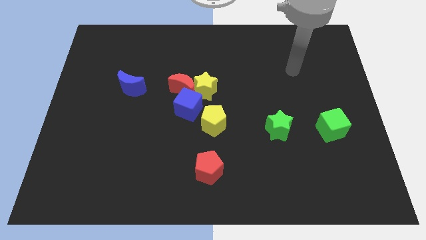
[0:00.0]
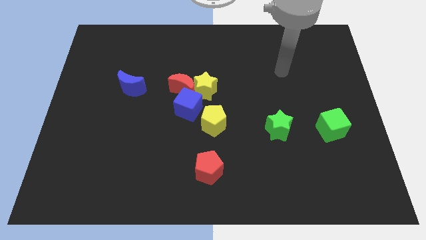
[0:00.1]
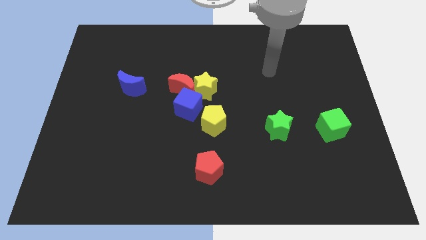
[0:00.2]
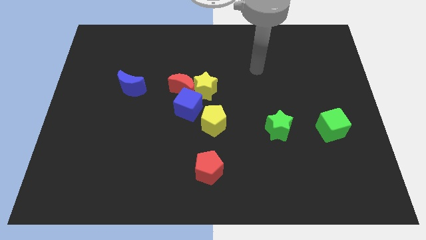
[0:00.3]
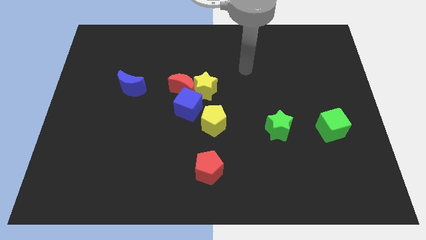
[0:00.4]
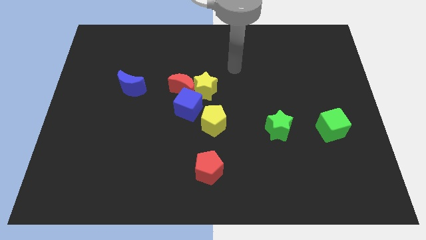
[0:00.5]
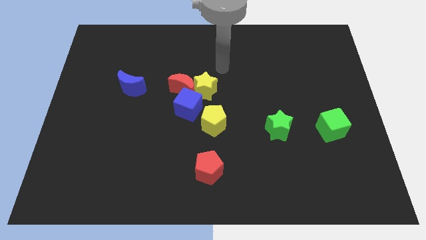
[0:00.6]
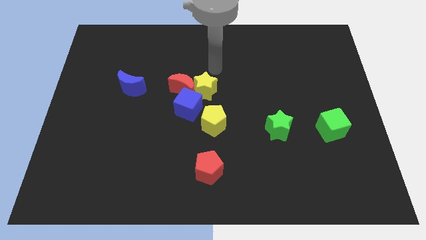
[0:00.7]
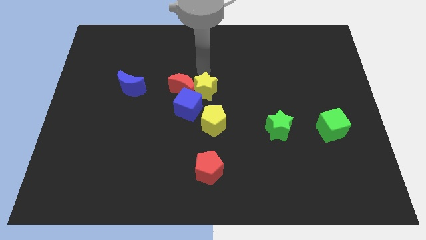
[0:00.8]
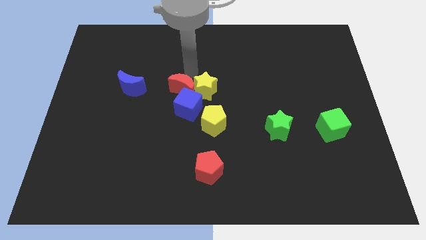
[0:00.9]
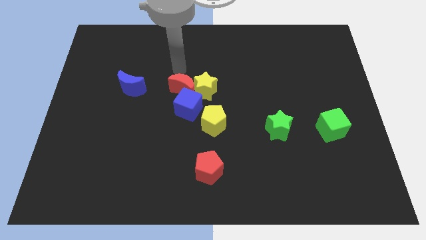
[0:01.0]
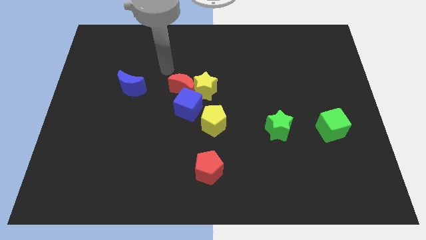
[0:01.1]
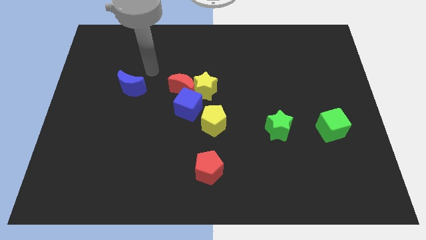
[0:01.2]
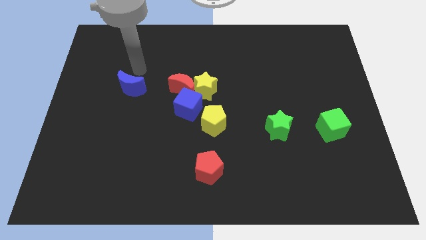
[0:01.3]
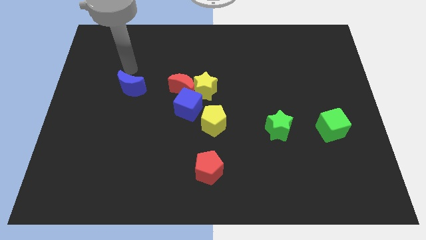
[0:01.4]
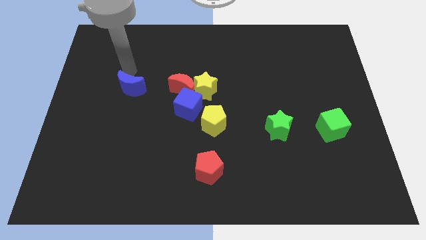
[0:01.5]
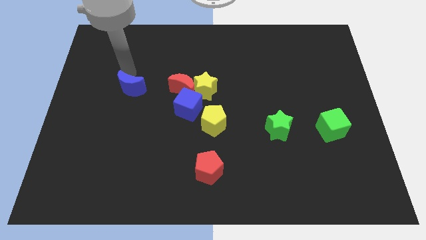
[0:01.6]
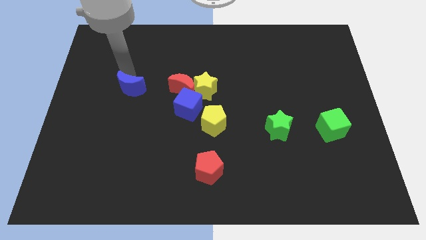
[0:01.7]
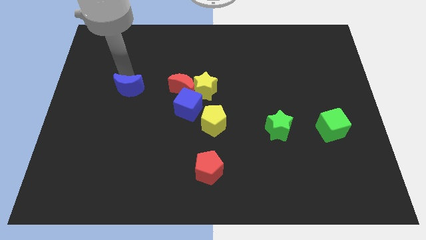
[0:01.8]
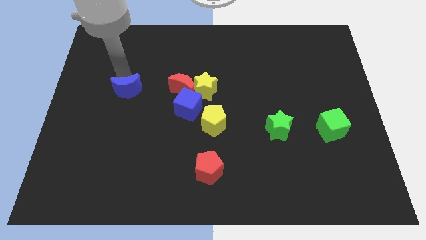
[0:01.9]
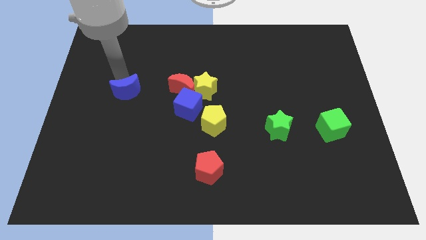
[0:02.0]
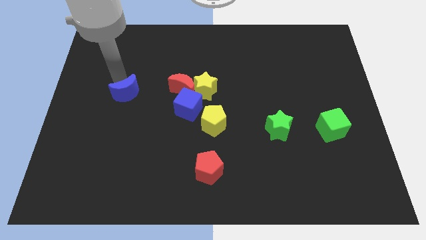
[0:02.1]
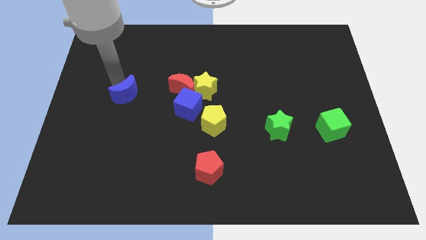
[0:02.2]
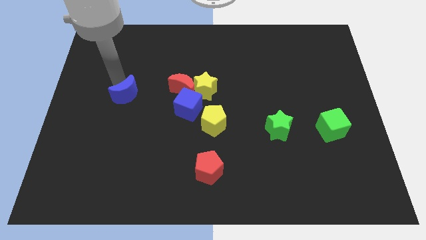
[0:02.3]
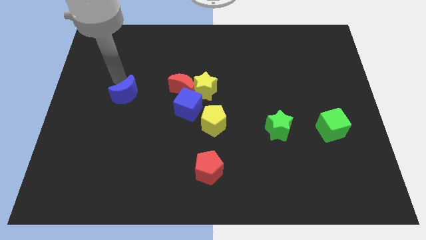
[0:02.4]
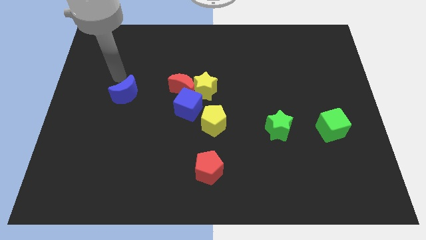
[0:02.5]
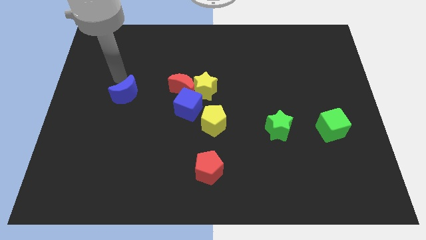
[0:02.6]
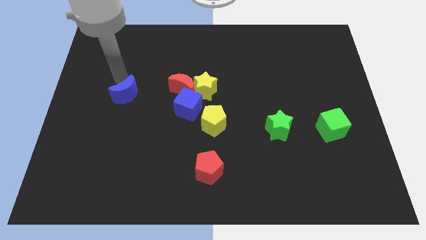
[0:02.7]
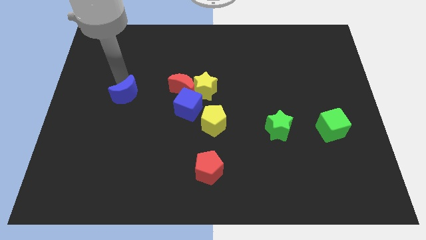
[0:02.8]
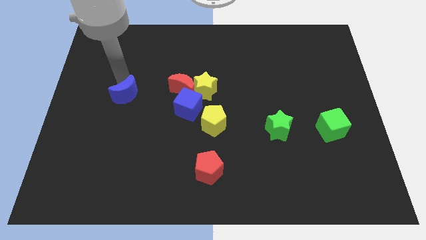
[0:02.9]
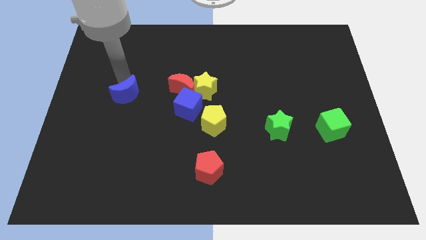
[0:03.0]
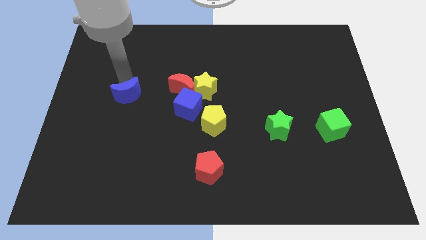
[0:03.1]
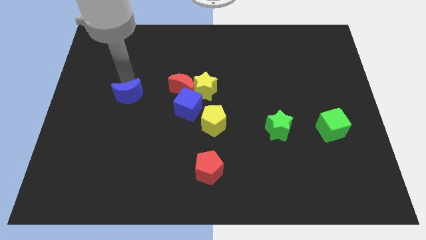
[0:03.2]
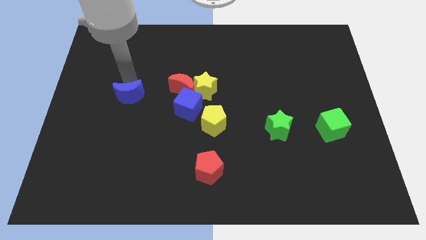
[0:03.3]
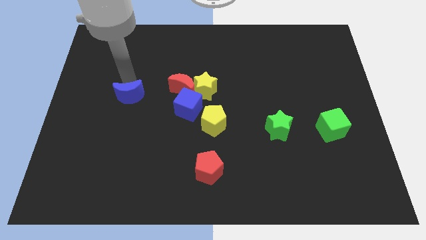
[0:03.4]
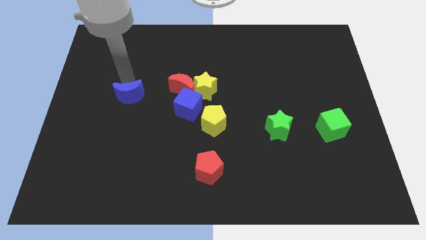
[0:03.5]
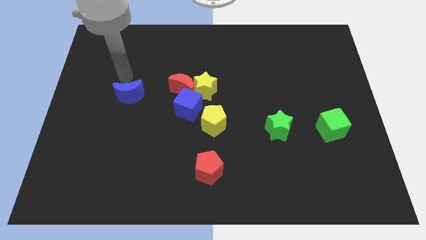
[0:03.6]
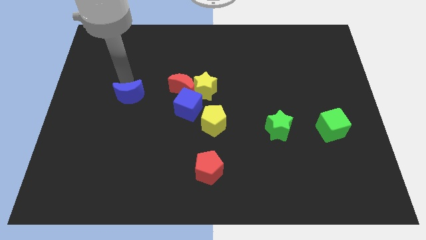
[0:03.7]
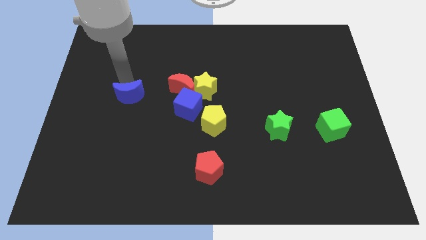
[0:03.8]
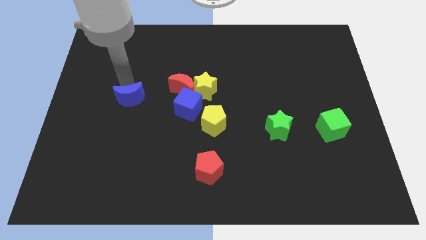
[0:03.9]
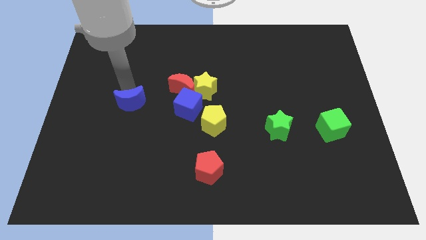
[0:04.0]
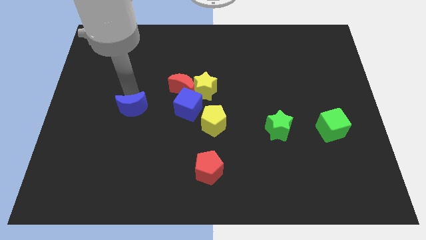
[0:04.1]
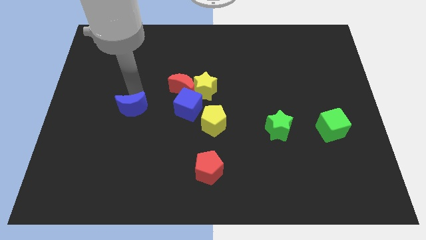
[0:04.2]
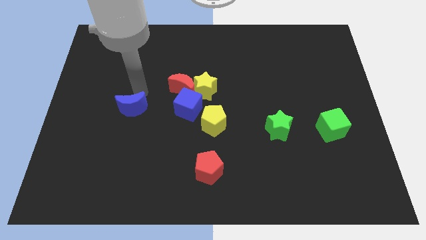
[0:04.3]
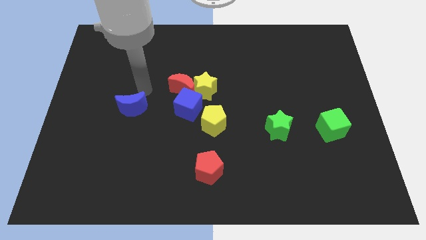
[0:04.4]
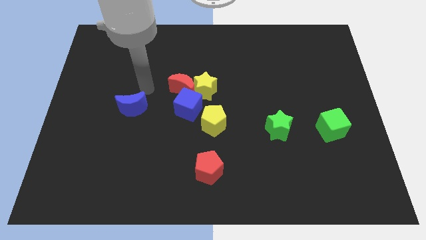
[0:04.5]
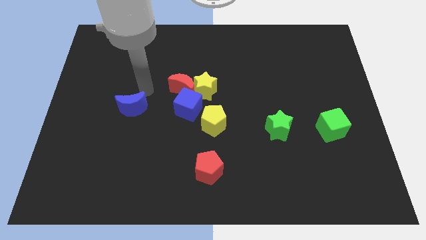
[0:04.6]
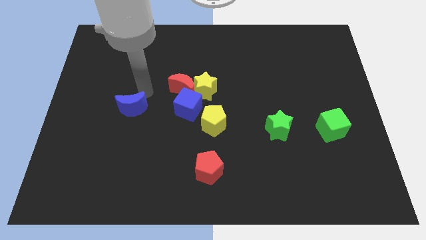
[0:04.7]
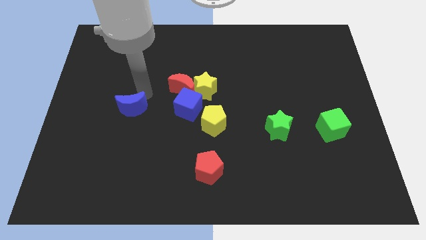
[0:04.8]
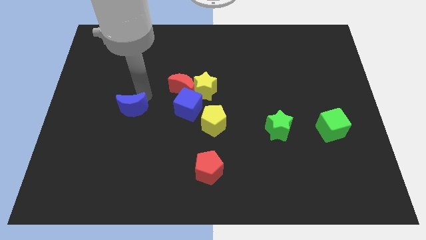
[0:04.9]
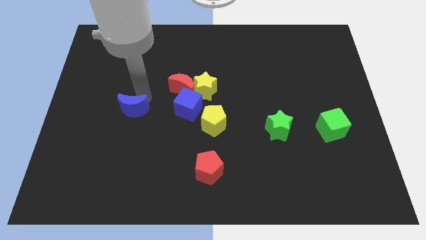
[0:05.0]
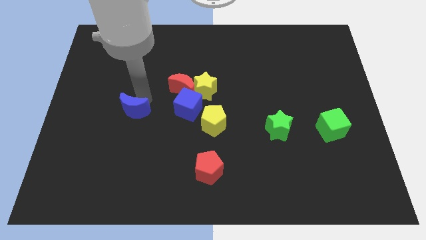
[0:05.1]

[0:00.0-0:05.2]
push the blue moon a little down

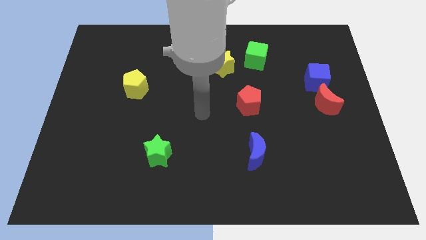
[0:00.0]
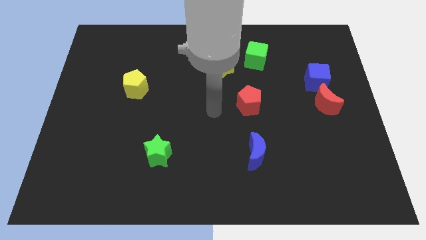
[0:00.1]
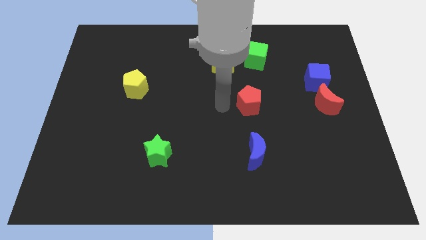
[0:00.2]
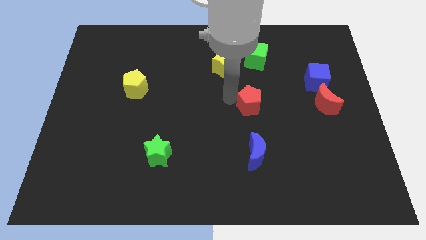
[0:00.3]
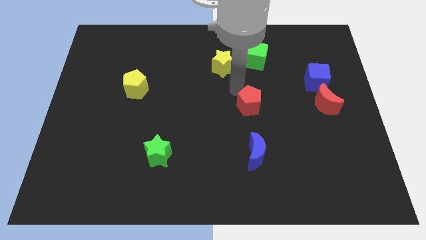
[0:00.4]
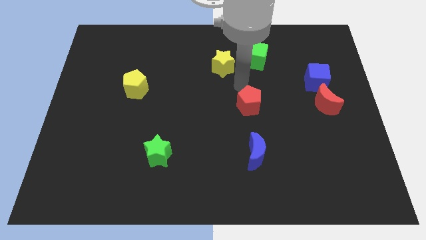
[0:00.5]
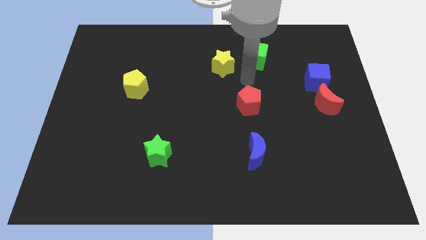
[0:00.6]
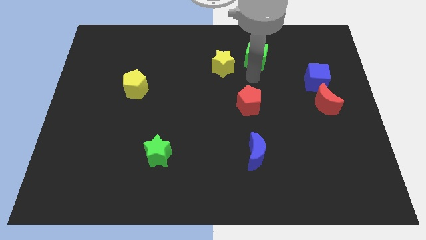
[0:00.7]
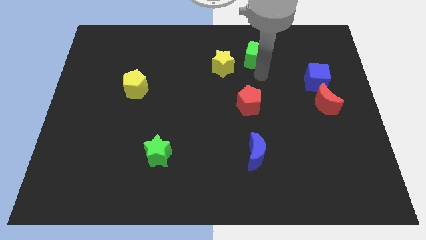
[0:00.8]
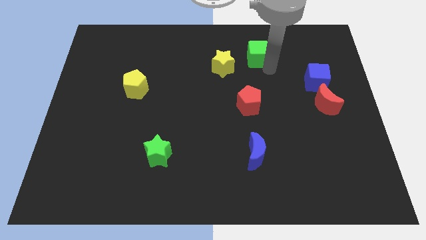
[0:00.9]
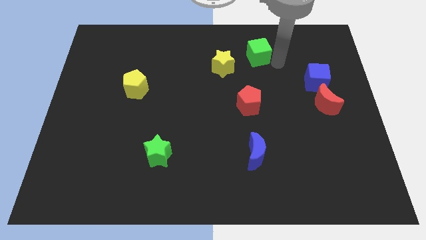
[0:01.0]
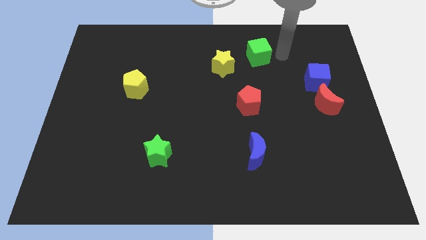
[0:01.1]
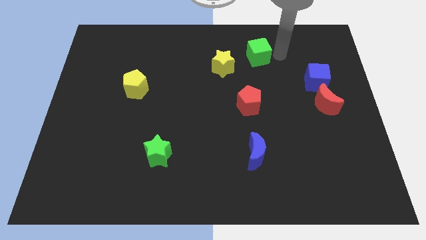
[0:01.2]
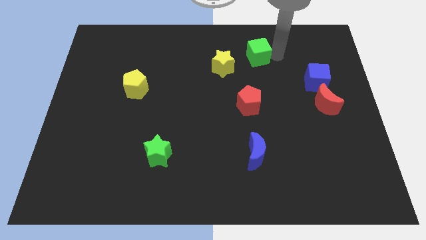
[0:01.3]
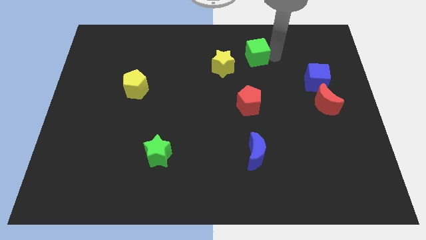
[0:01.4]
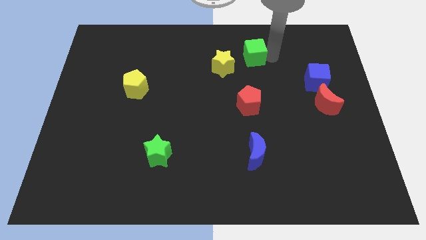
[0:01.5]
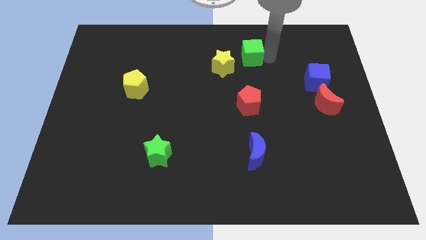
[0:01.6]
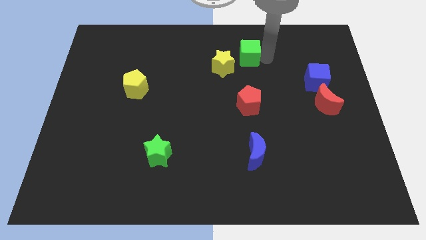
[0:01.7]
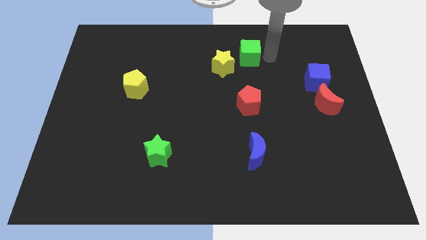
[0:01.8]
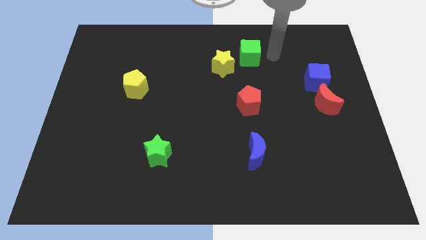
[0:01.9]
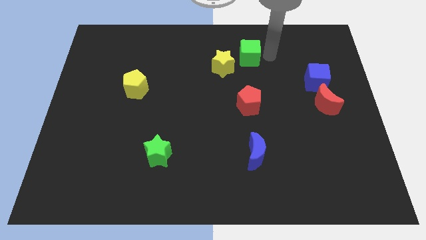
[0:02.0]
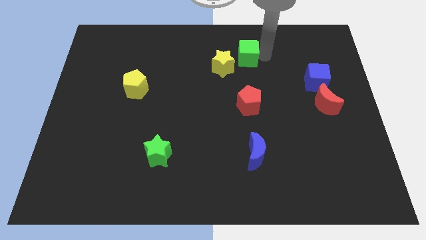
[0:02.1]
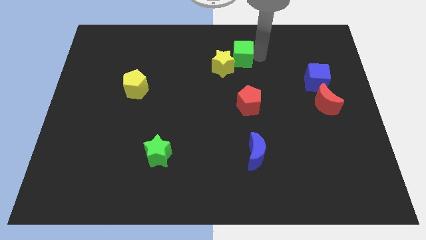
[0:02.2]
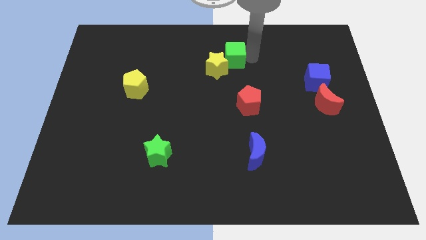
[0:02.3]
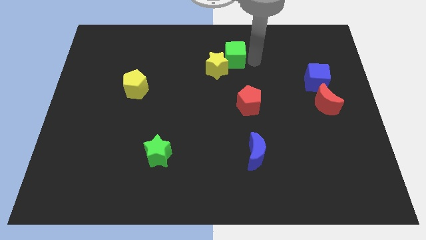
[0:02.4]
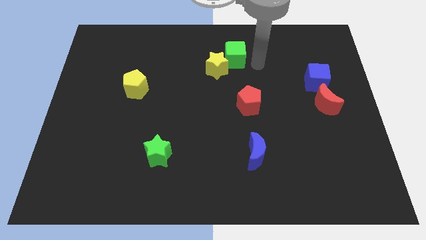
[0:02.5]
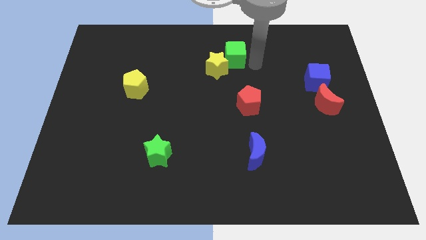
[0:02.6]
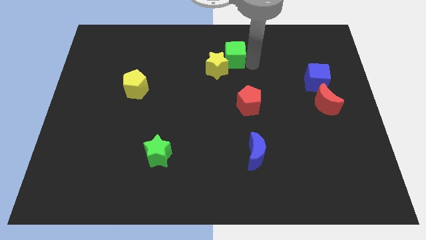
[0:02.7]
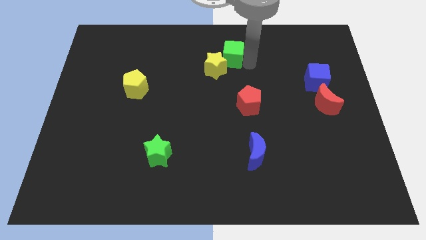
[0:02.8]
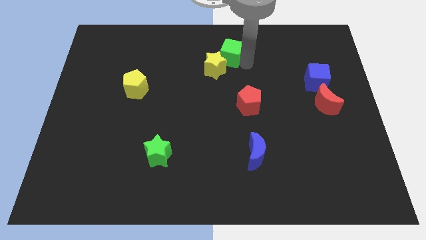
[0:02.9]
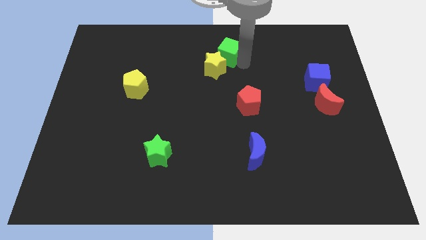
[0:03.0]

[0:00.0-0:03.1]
slightly move the green cube to the left
